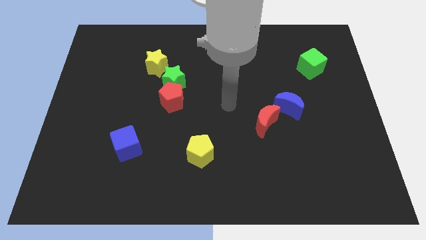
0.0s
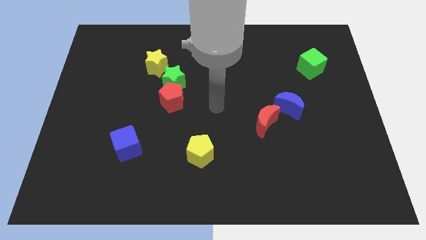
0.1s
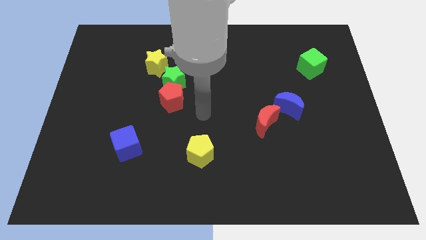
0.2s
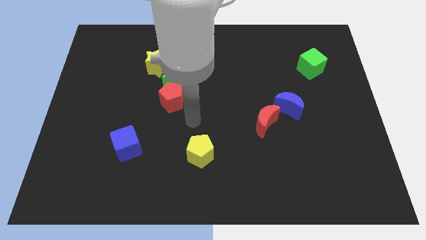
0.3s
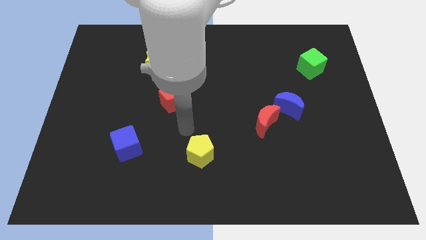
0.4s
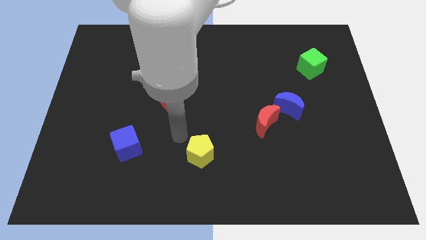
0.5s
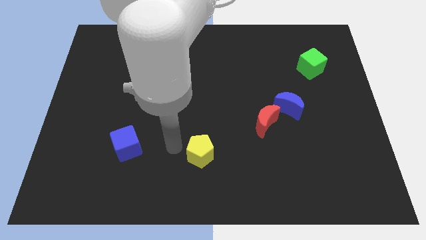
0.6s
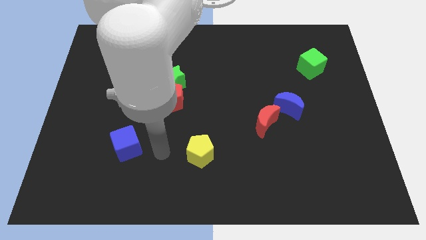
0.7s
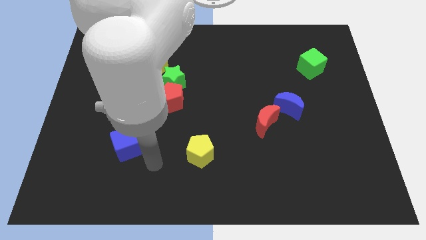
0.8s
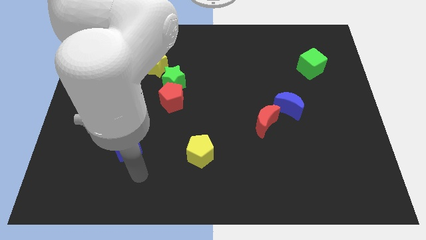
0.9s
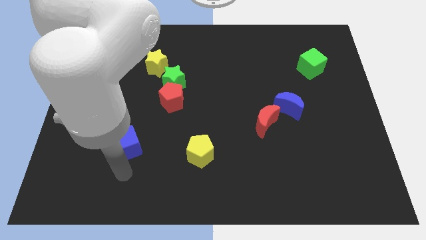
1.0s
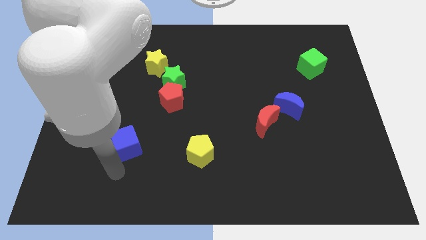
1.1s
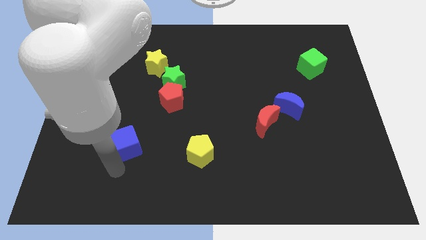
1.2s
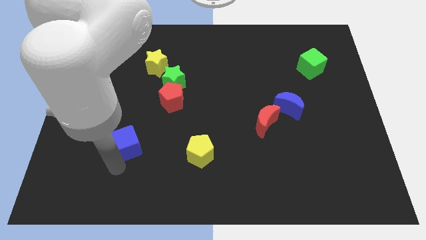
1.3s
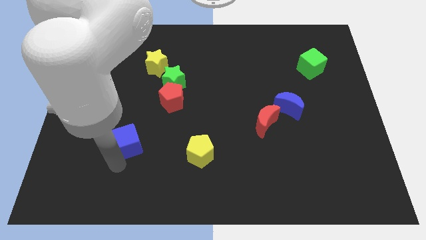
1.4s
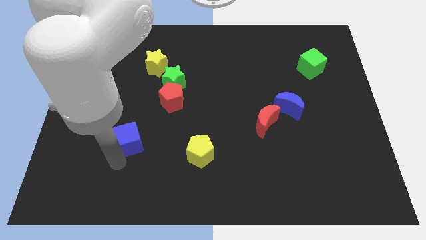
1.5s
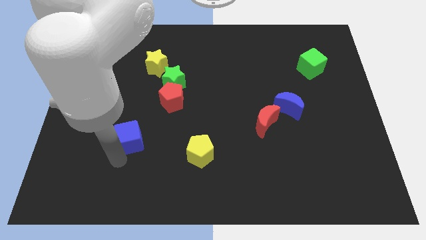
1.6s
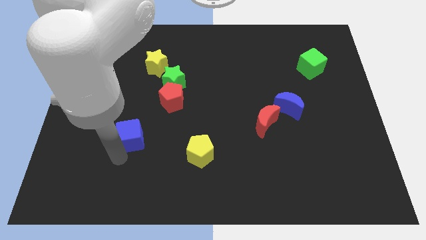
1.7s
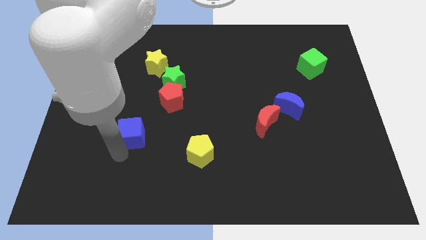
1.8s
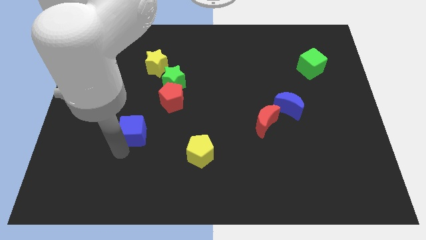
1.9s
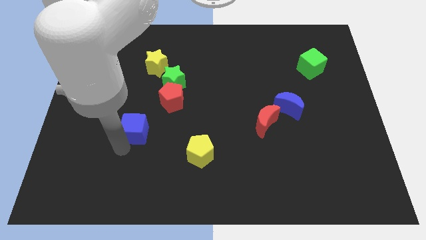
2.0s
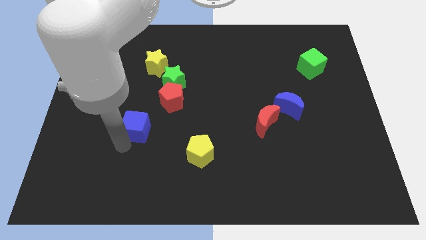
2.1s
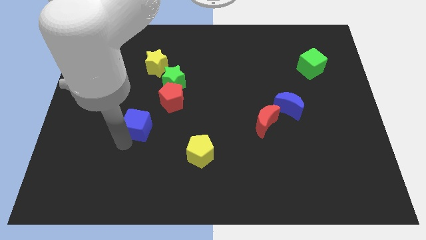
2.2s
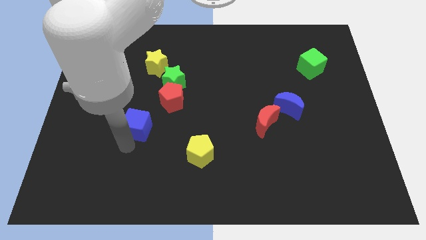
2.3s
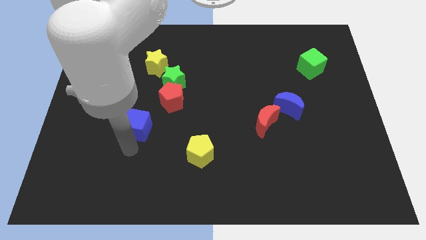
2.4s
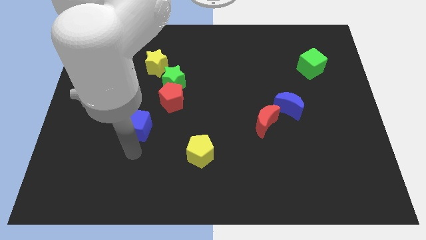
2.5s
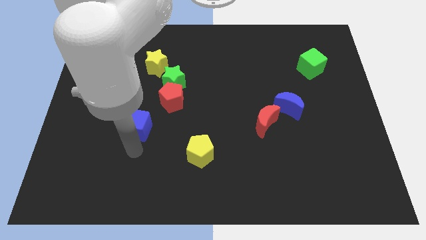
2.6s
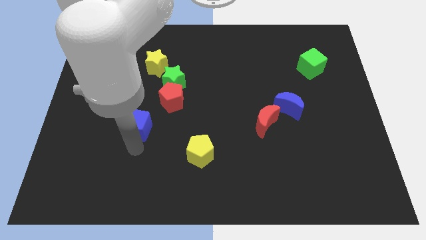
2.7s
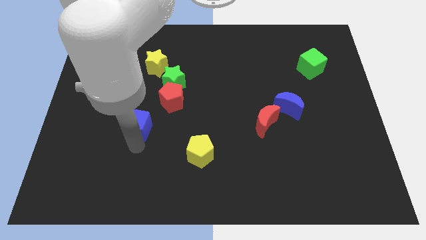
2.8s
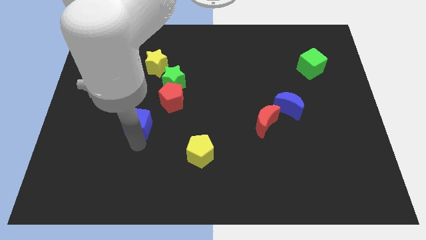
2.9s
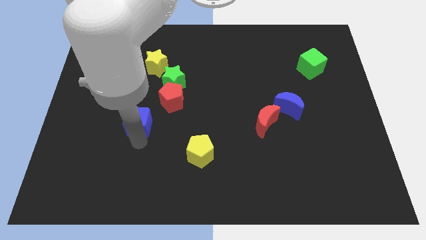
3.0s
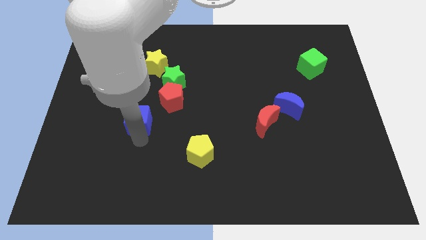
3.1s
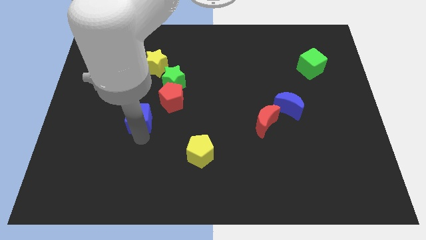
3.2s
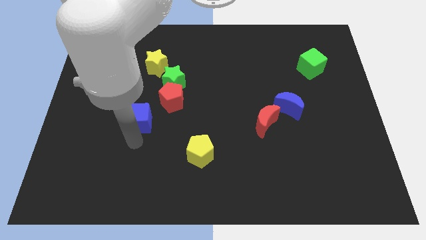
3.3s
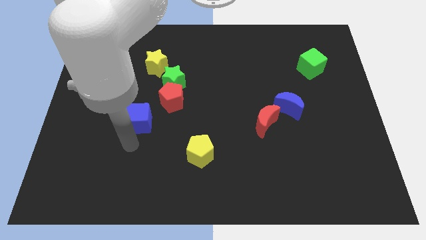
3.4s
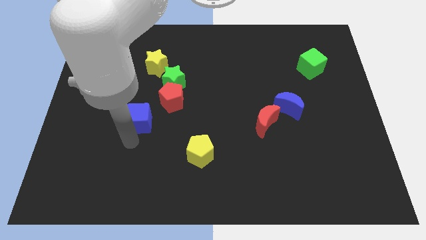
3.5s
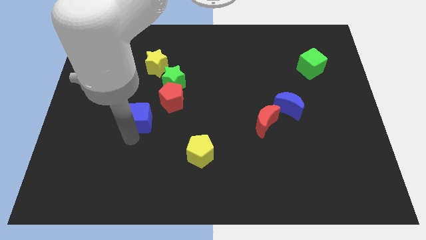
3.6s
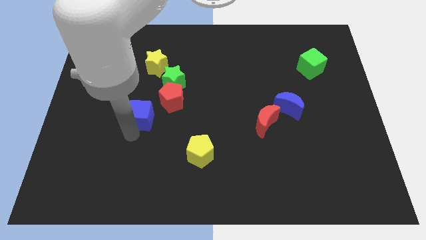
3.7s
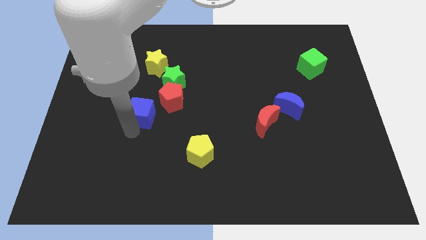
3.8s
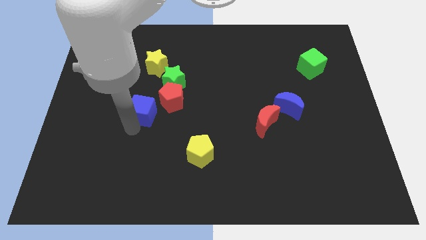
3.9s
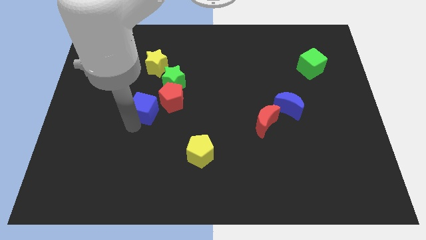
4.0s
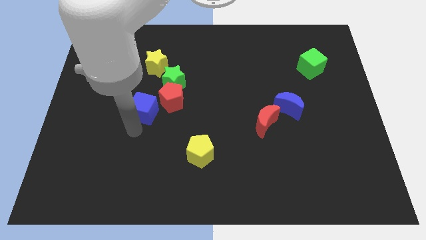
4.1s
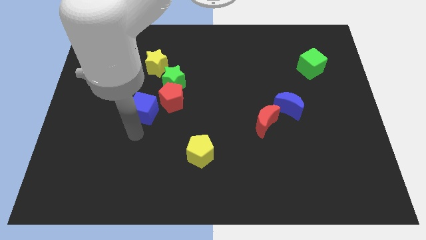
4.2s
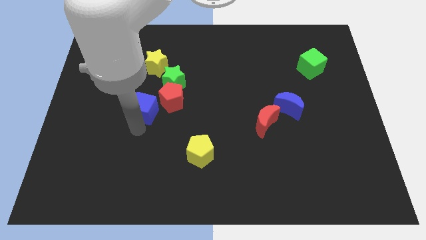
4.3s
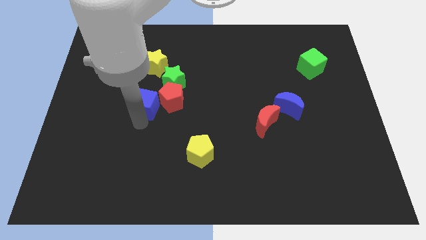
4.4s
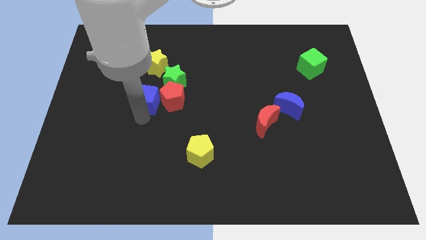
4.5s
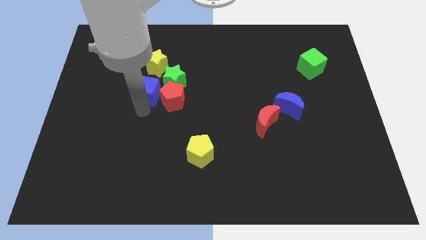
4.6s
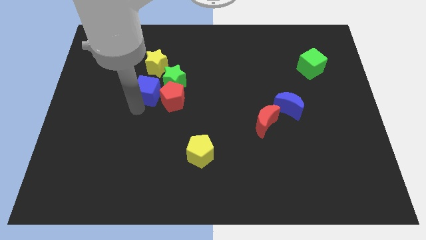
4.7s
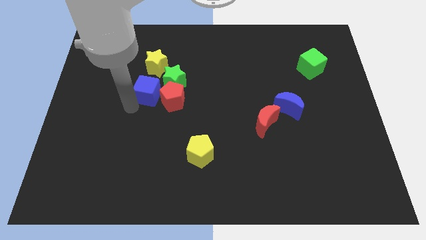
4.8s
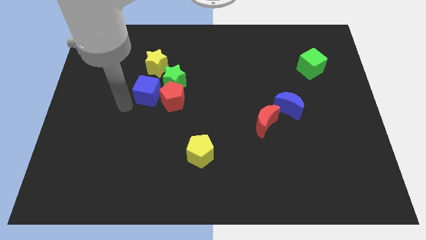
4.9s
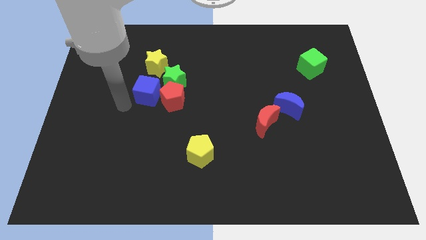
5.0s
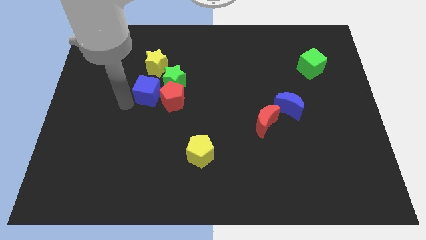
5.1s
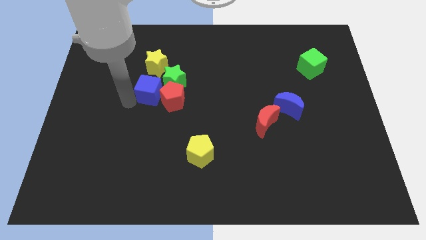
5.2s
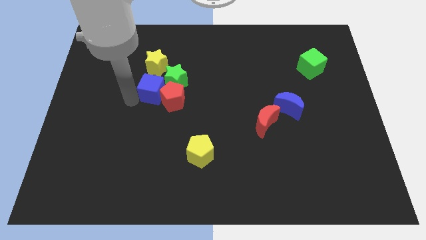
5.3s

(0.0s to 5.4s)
slide the blue cube next to the green star
